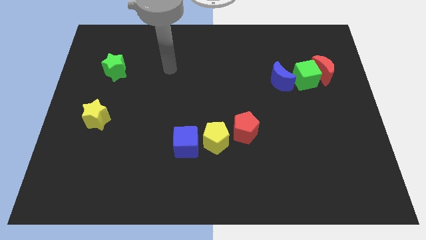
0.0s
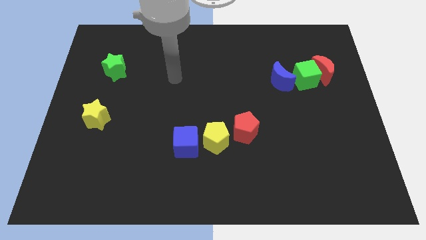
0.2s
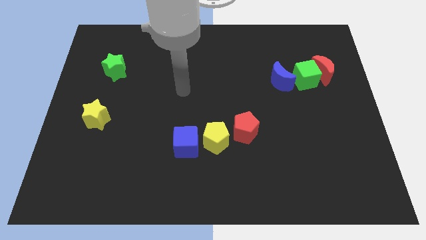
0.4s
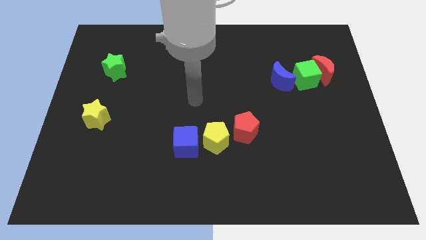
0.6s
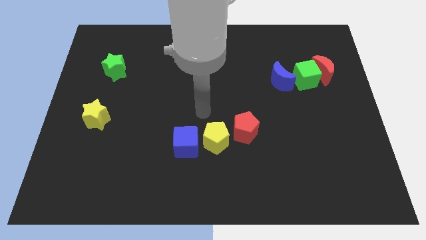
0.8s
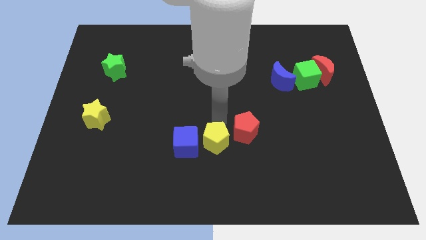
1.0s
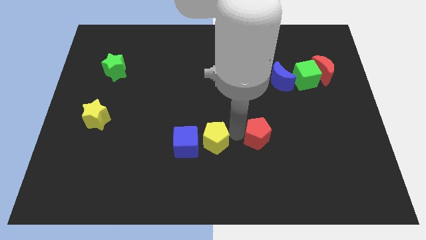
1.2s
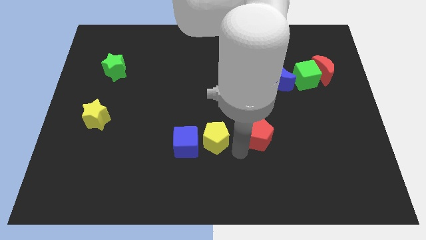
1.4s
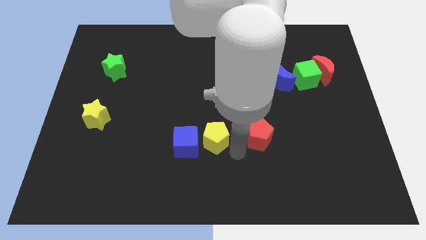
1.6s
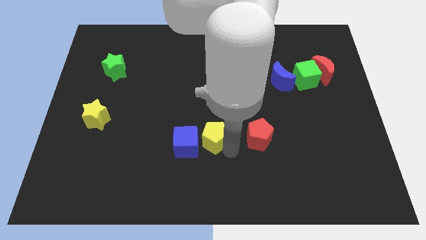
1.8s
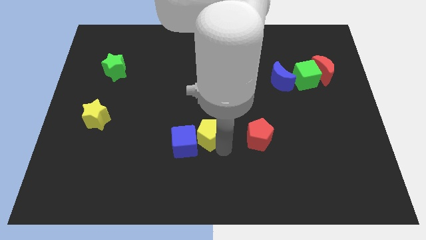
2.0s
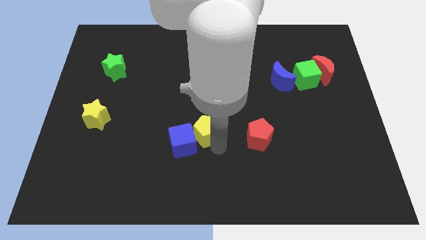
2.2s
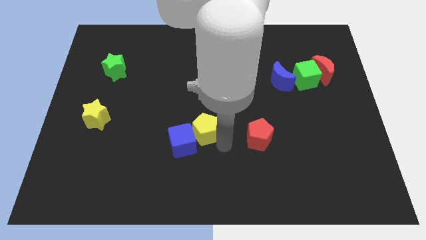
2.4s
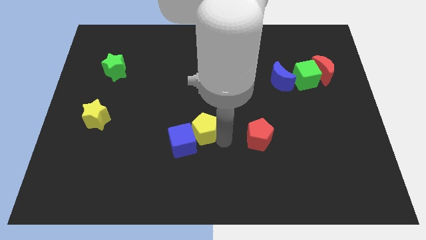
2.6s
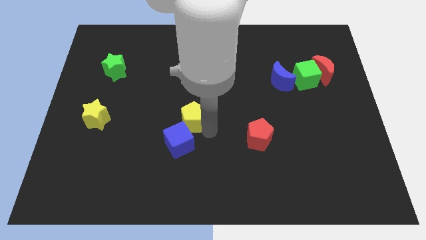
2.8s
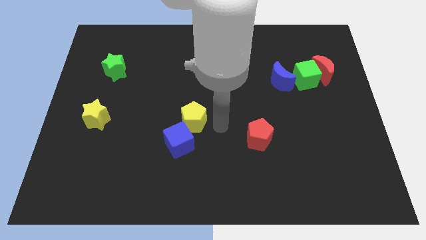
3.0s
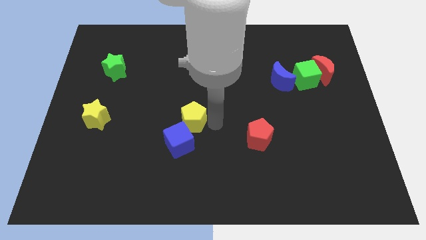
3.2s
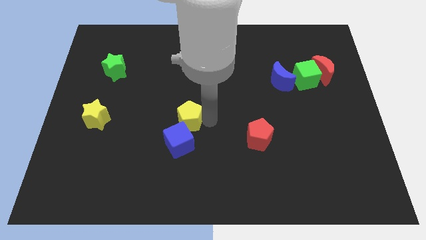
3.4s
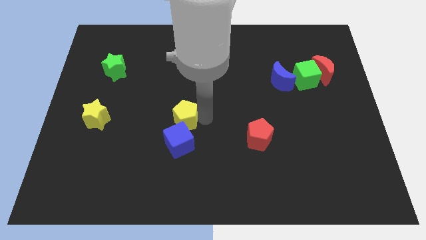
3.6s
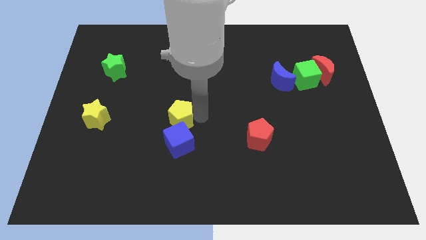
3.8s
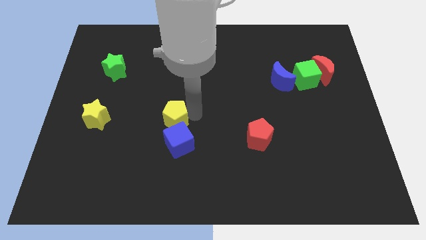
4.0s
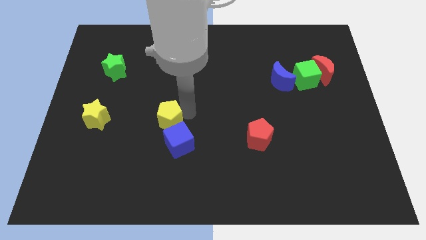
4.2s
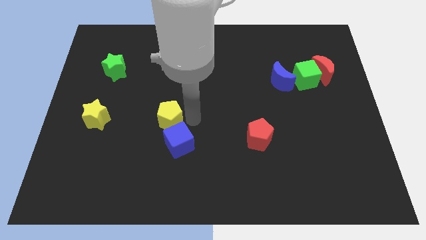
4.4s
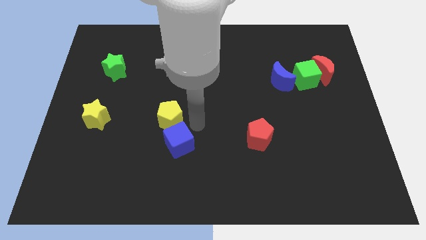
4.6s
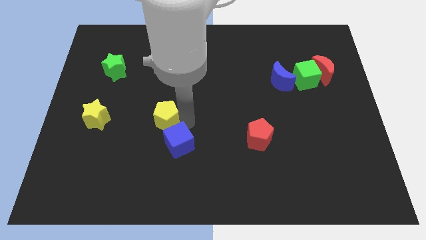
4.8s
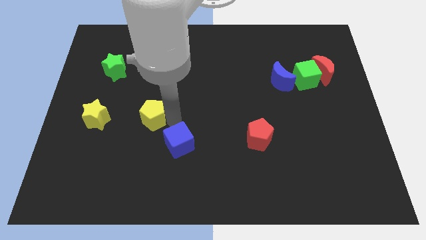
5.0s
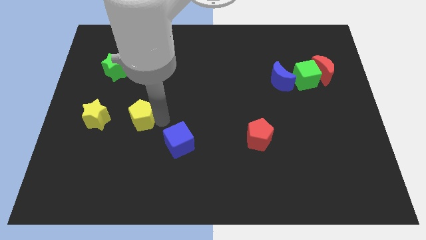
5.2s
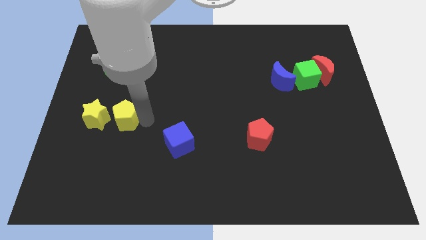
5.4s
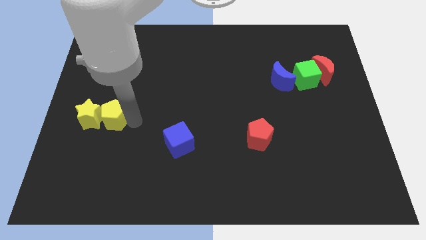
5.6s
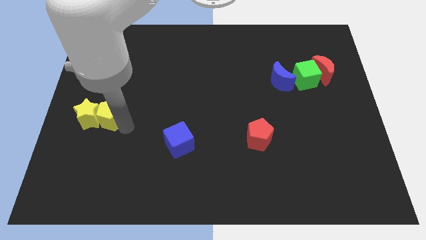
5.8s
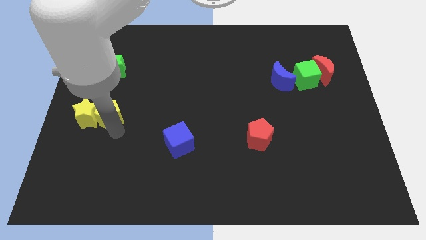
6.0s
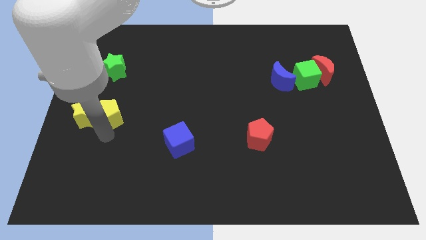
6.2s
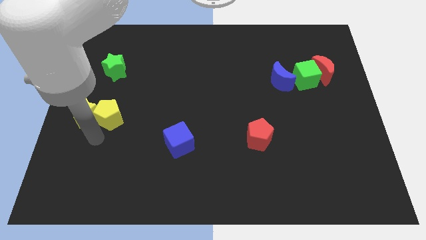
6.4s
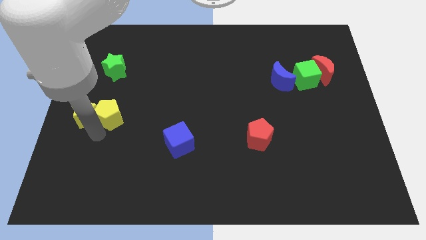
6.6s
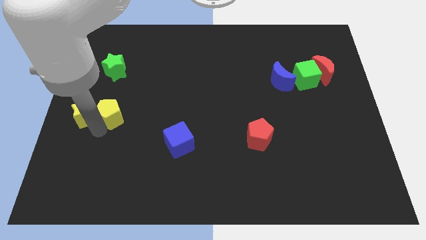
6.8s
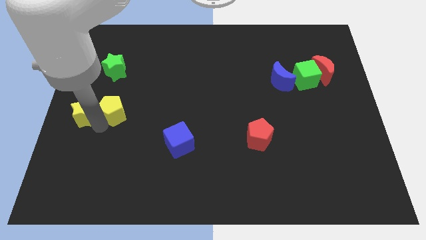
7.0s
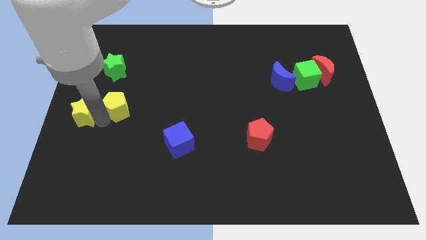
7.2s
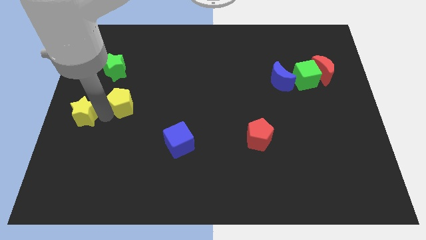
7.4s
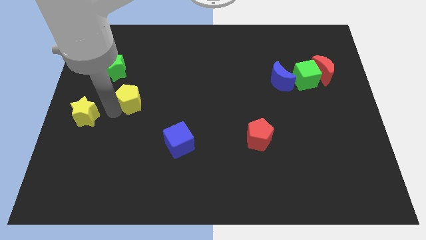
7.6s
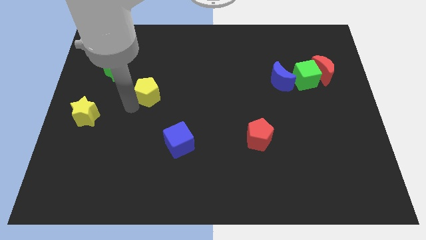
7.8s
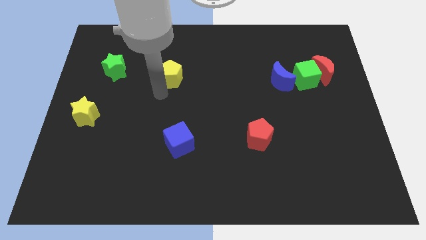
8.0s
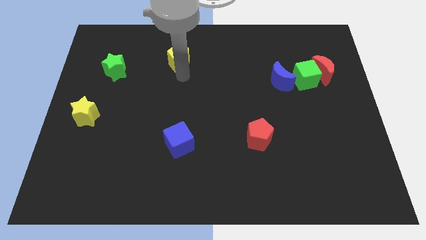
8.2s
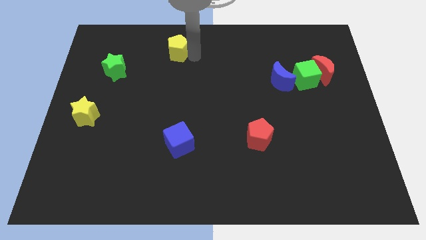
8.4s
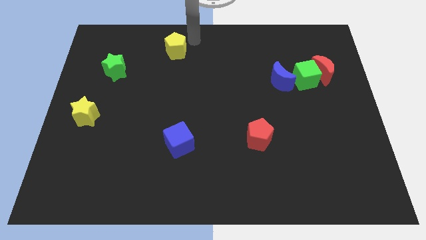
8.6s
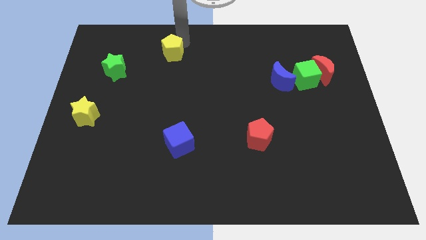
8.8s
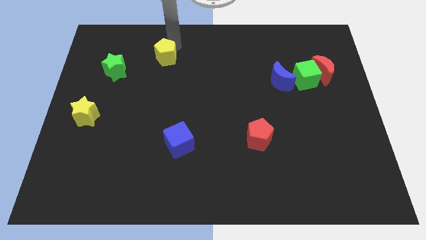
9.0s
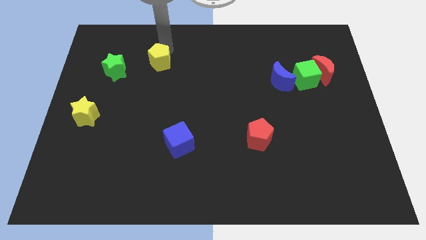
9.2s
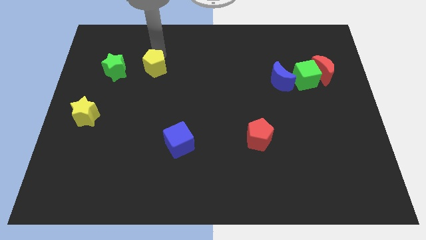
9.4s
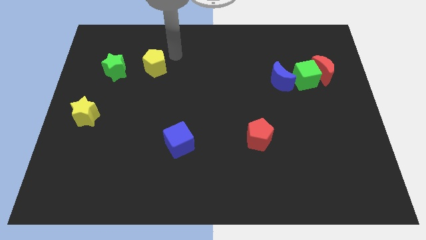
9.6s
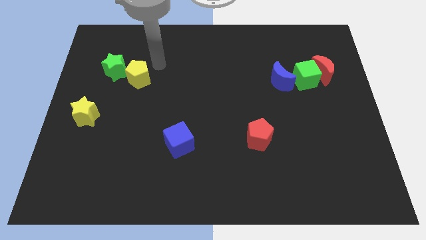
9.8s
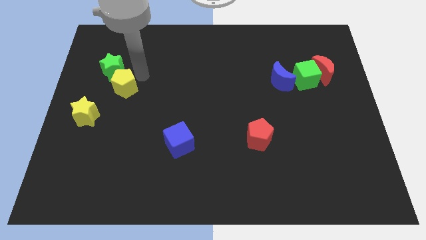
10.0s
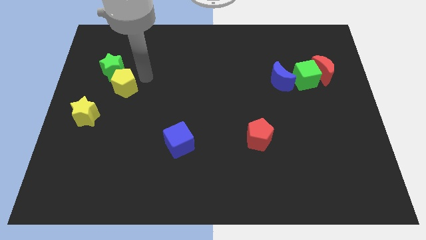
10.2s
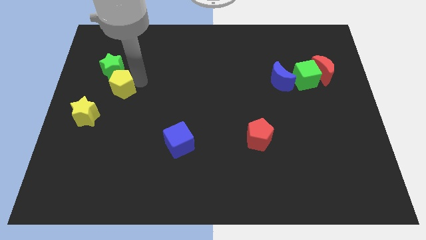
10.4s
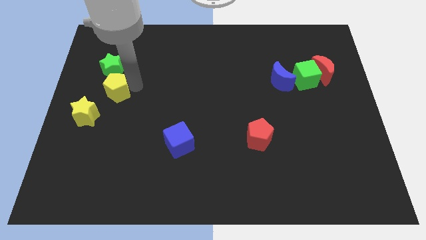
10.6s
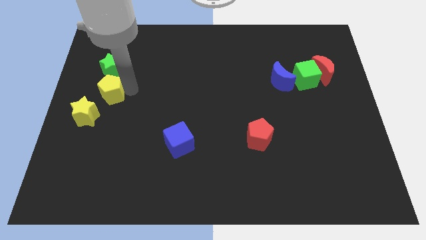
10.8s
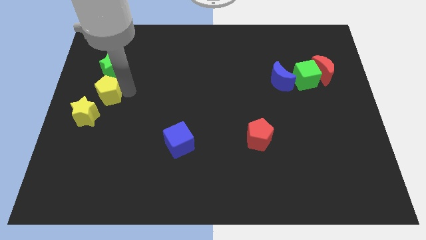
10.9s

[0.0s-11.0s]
push the yellow pentagon to the left side of the board
